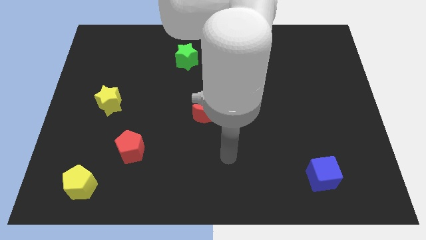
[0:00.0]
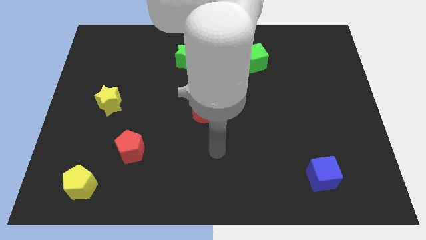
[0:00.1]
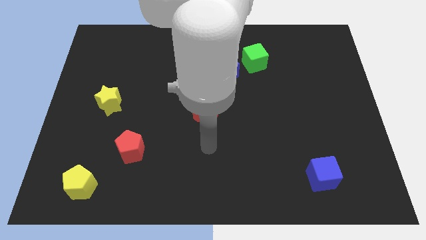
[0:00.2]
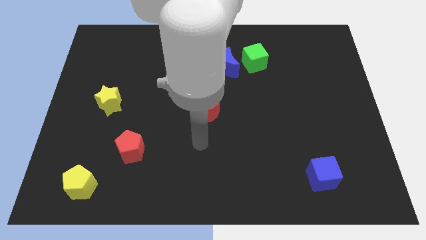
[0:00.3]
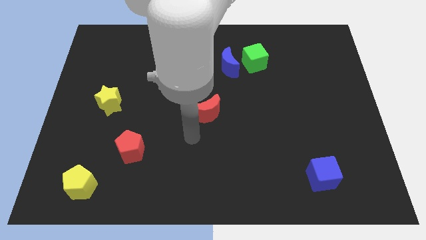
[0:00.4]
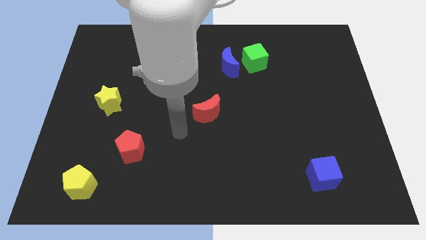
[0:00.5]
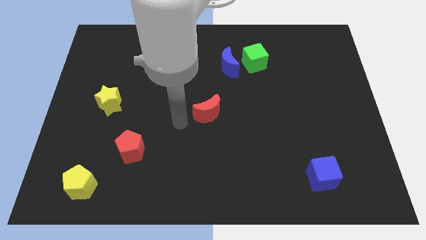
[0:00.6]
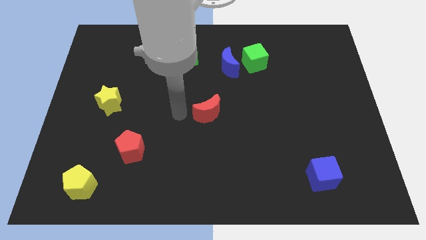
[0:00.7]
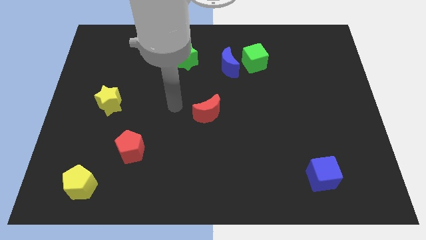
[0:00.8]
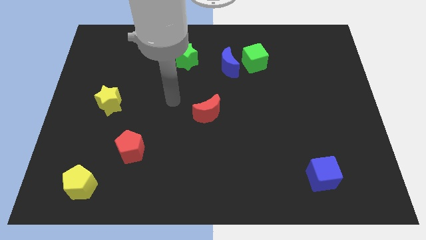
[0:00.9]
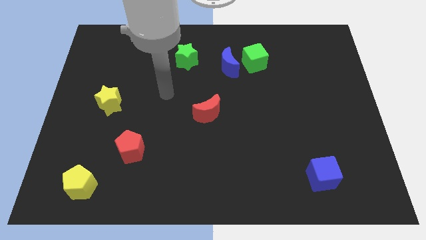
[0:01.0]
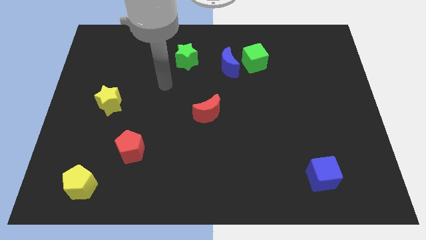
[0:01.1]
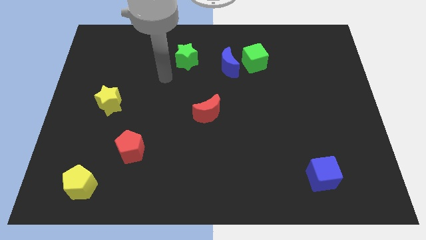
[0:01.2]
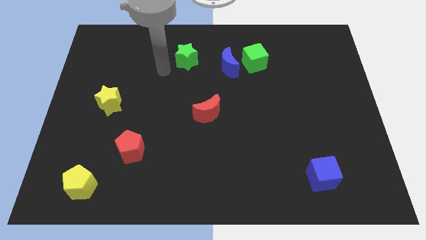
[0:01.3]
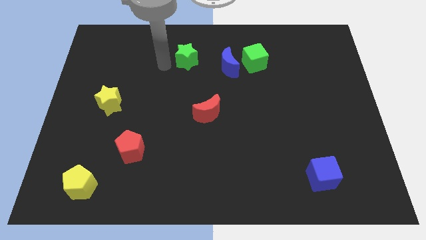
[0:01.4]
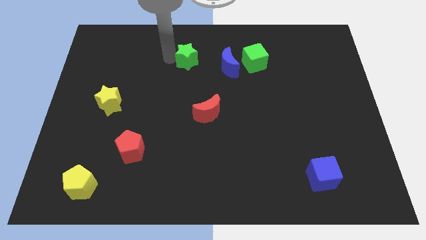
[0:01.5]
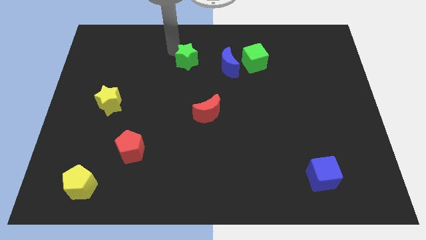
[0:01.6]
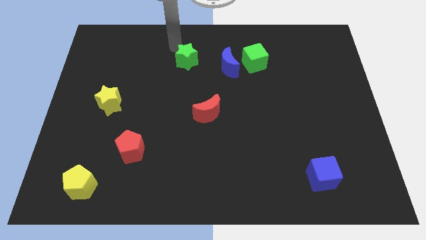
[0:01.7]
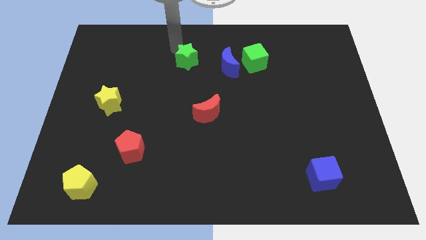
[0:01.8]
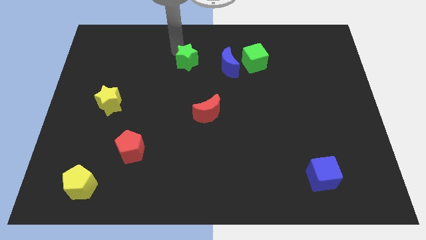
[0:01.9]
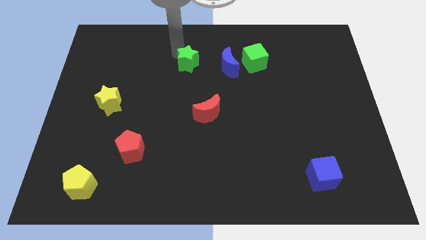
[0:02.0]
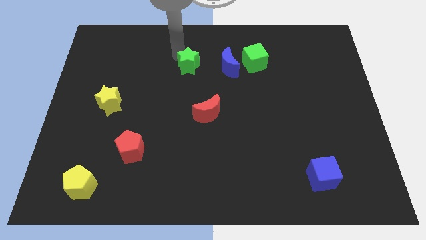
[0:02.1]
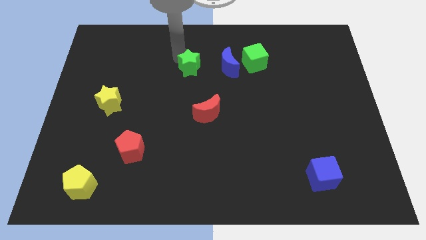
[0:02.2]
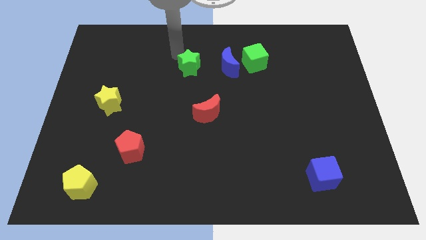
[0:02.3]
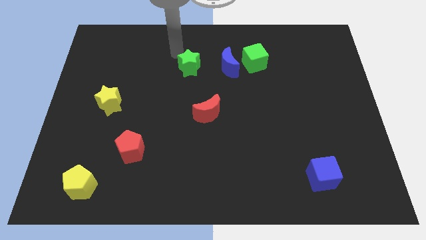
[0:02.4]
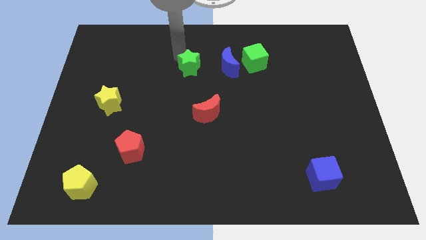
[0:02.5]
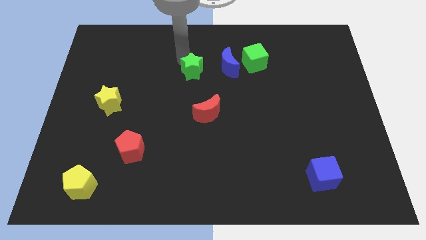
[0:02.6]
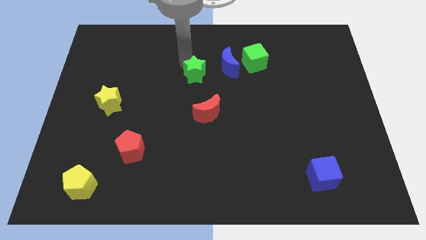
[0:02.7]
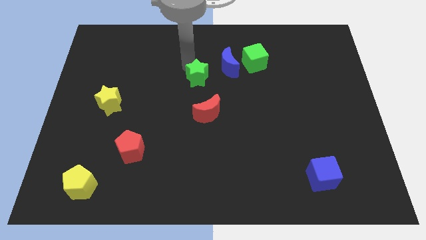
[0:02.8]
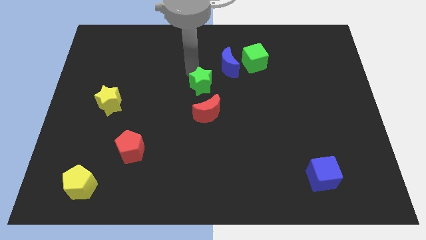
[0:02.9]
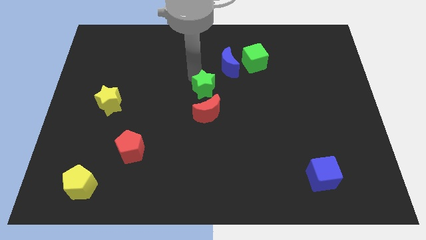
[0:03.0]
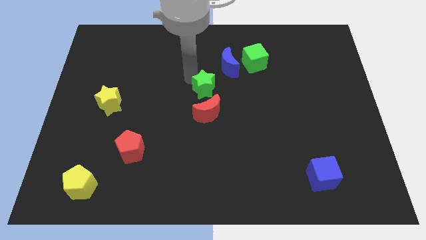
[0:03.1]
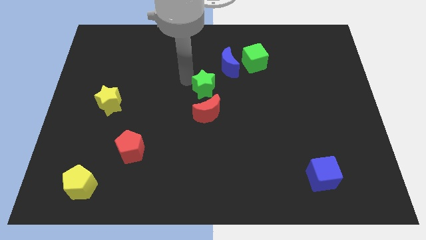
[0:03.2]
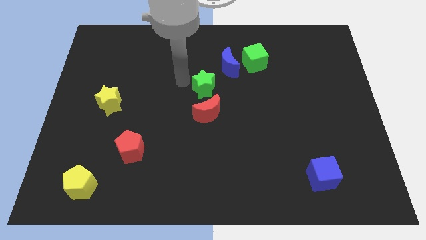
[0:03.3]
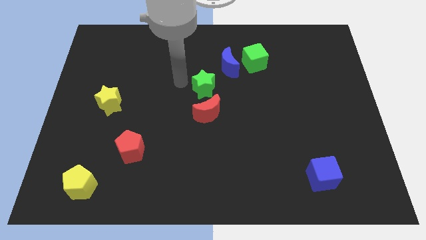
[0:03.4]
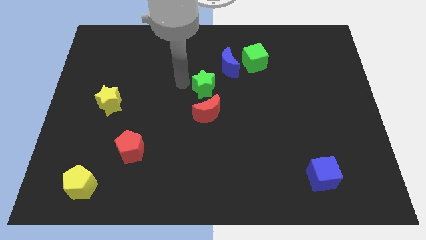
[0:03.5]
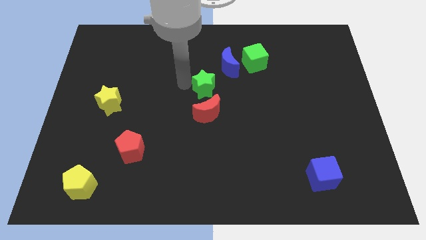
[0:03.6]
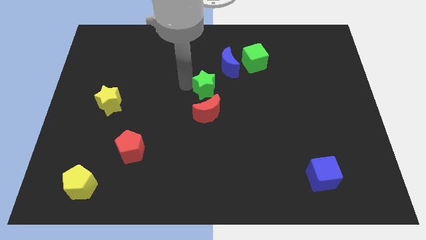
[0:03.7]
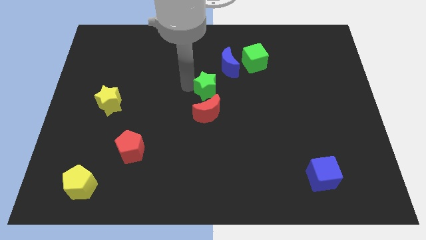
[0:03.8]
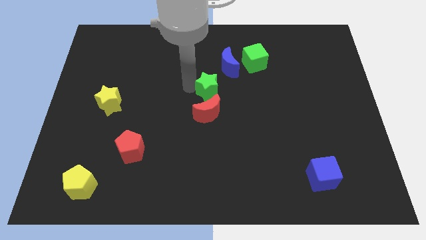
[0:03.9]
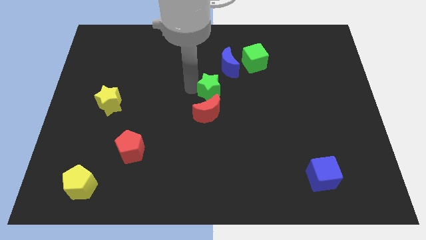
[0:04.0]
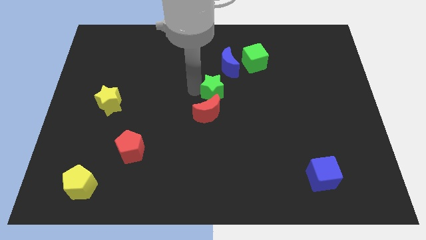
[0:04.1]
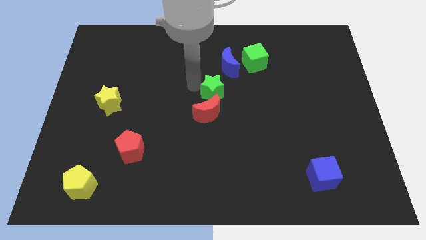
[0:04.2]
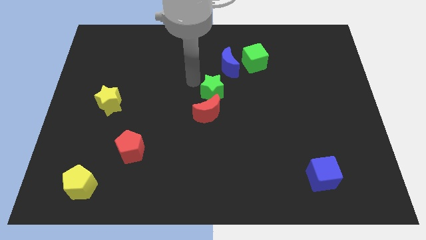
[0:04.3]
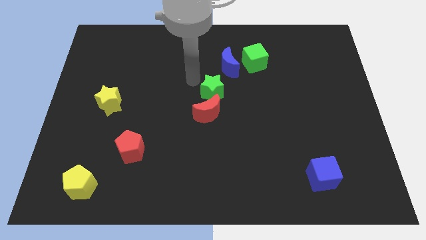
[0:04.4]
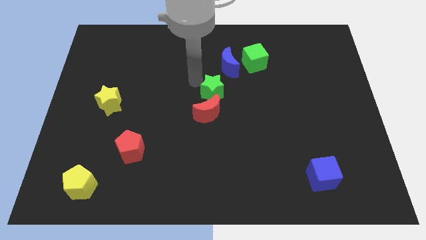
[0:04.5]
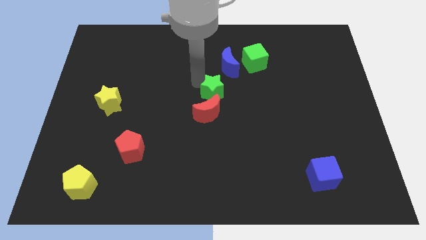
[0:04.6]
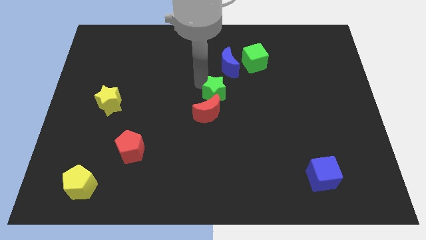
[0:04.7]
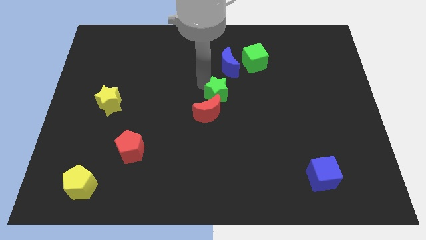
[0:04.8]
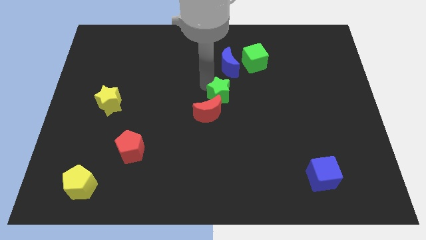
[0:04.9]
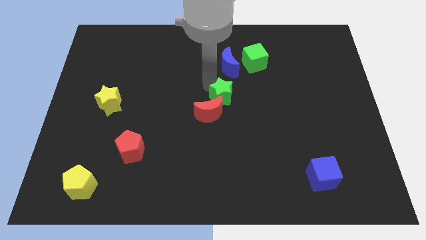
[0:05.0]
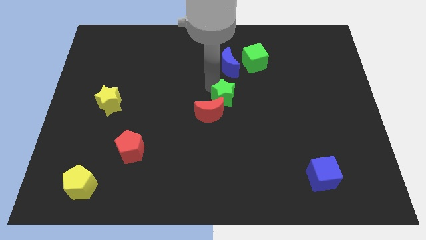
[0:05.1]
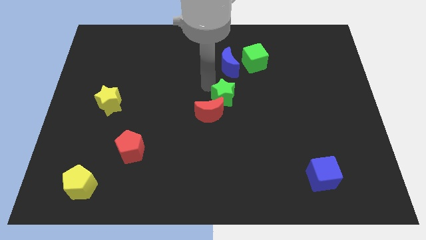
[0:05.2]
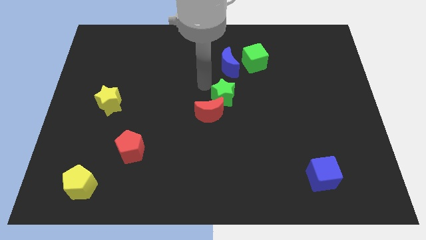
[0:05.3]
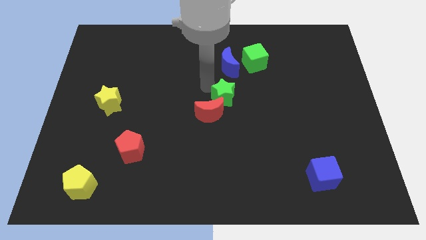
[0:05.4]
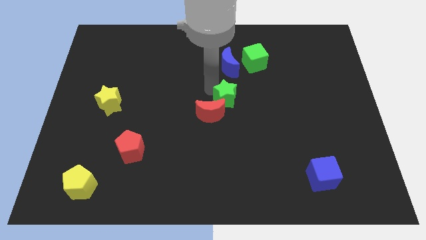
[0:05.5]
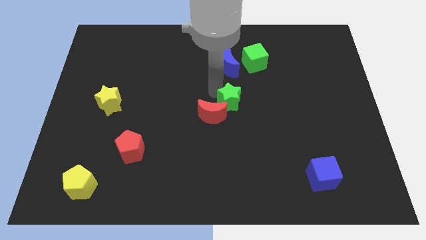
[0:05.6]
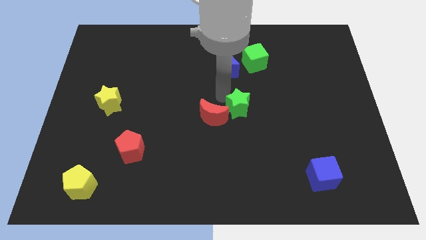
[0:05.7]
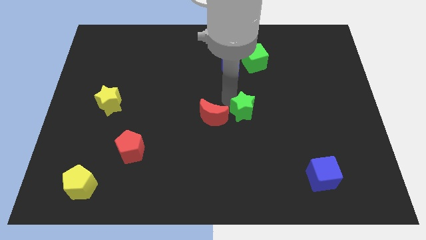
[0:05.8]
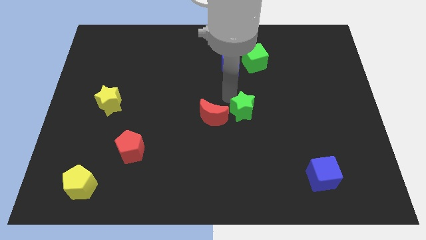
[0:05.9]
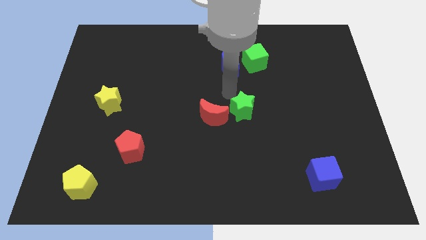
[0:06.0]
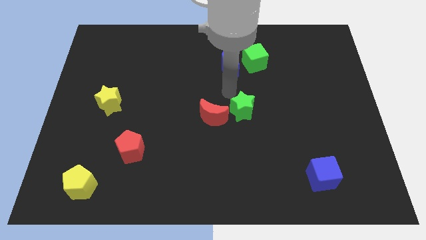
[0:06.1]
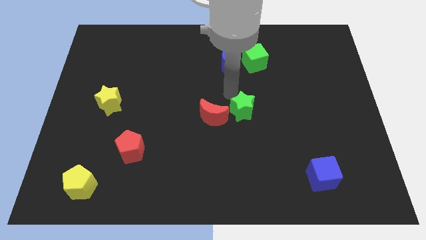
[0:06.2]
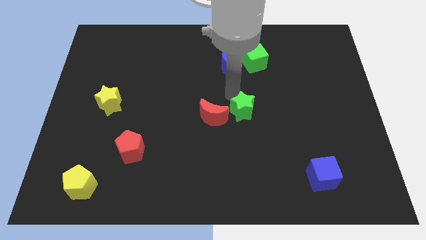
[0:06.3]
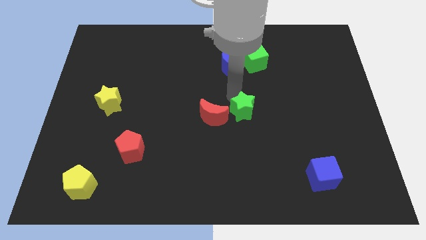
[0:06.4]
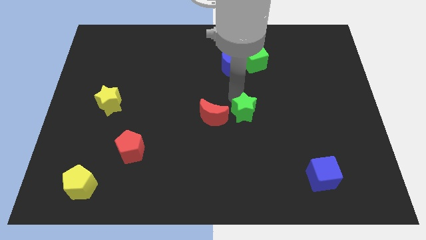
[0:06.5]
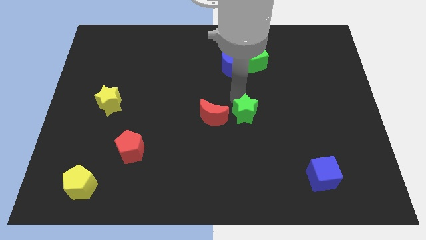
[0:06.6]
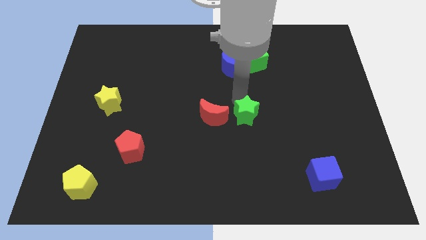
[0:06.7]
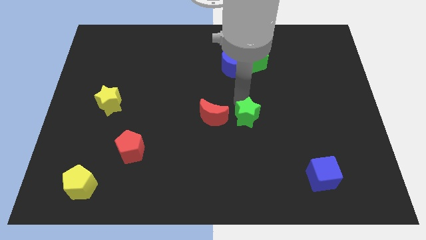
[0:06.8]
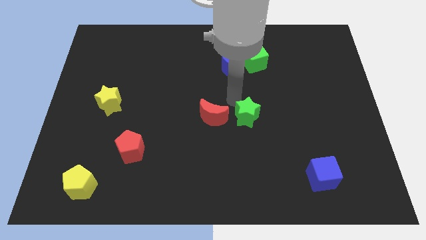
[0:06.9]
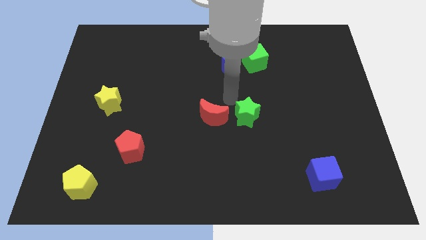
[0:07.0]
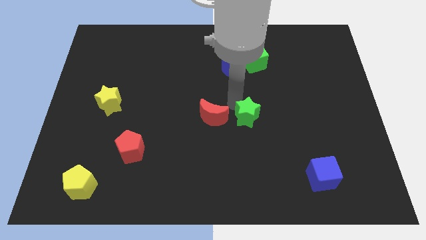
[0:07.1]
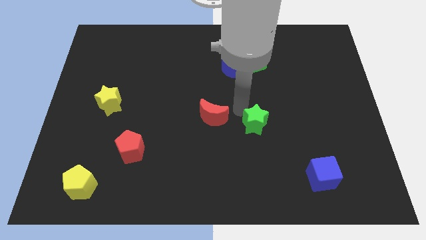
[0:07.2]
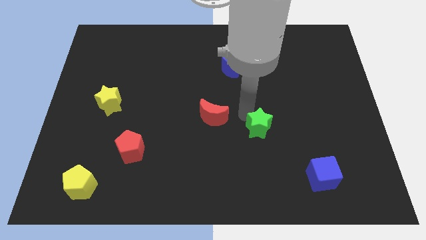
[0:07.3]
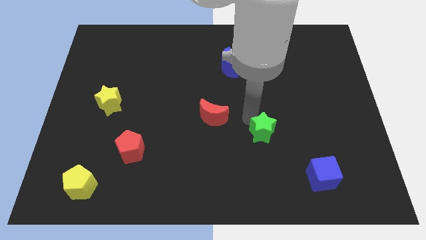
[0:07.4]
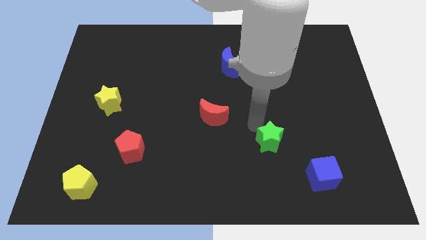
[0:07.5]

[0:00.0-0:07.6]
push the green star to the top left of the blue cube

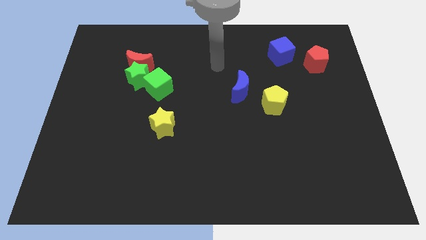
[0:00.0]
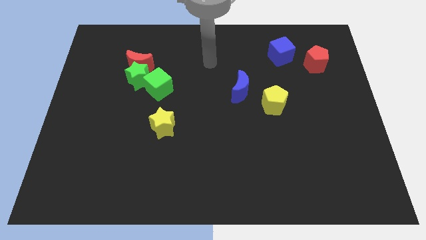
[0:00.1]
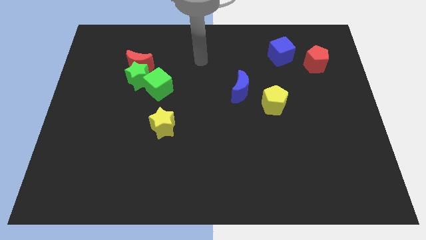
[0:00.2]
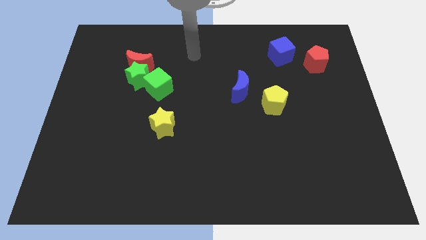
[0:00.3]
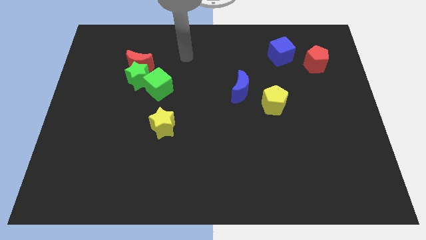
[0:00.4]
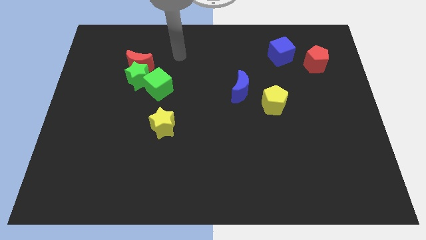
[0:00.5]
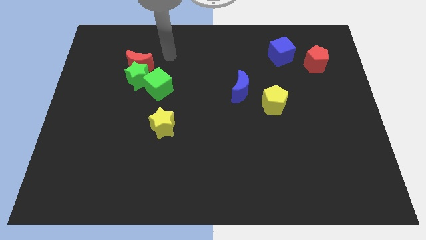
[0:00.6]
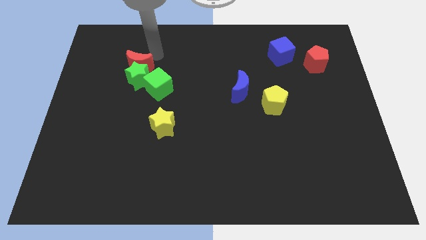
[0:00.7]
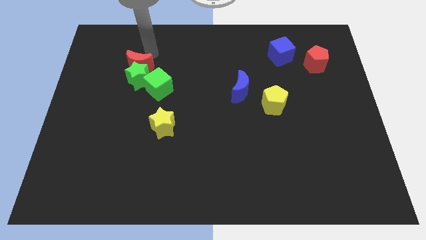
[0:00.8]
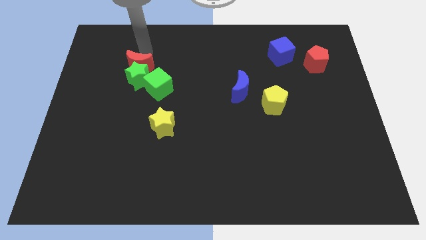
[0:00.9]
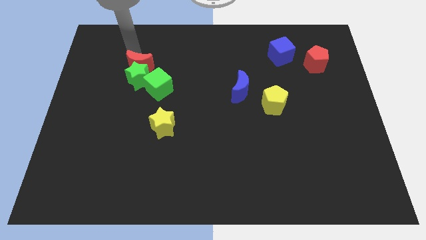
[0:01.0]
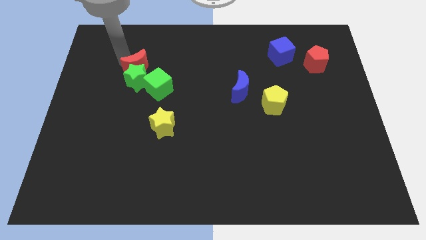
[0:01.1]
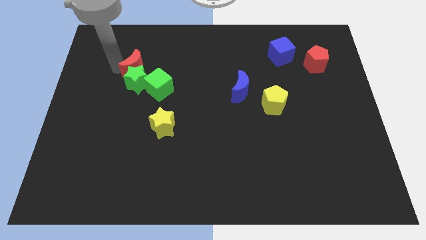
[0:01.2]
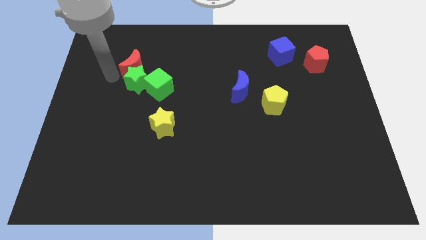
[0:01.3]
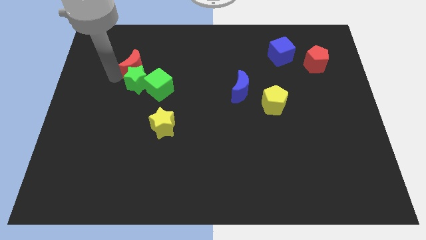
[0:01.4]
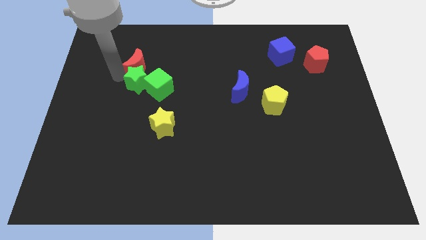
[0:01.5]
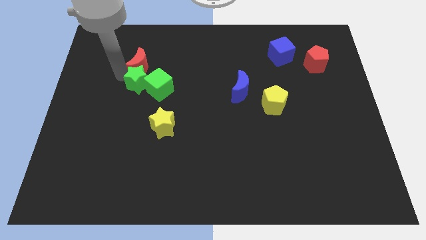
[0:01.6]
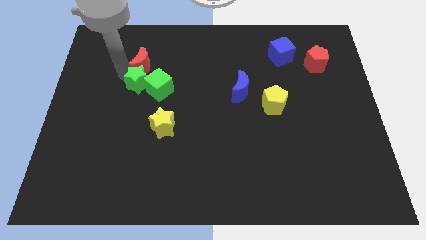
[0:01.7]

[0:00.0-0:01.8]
slide the red moon above the green cube

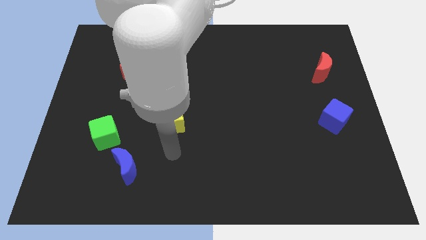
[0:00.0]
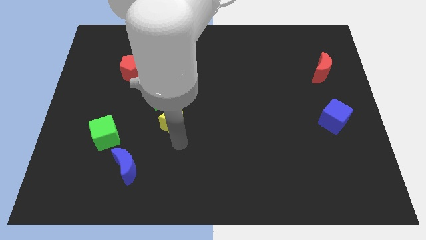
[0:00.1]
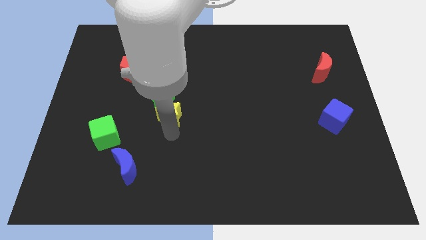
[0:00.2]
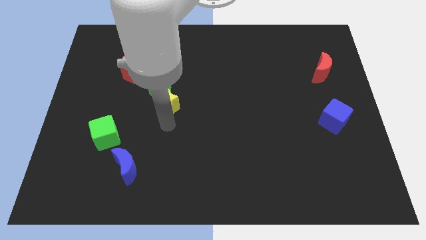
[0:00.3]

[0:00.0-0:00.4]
move the green star to the bottom right side of the yellow pentagon
